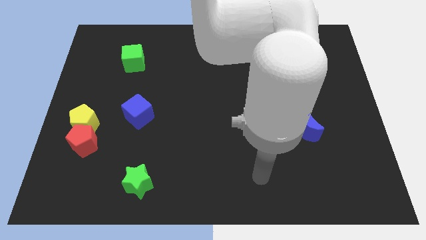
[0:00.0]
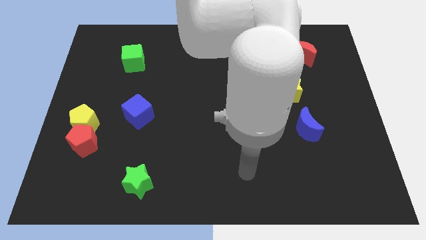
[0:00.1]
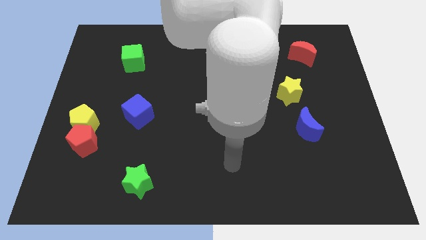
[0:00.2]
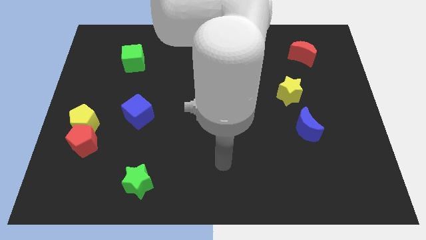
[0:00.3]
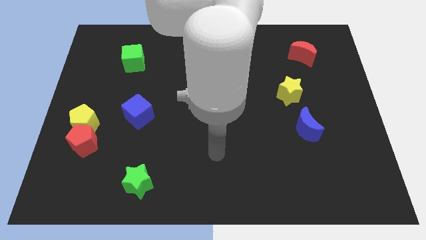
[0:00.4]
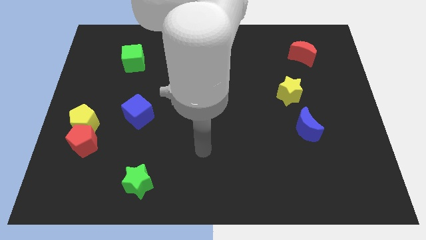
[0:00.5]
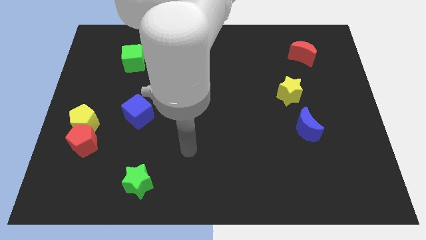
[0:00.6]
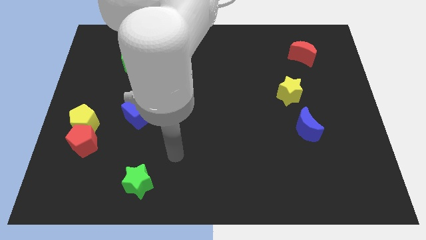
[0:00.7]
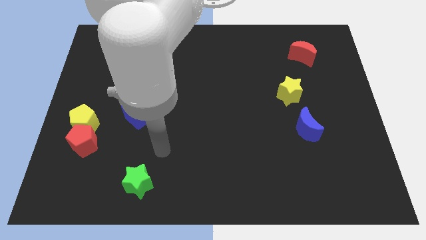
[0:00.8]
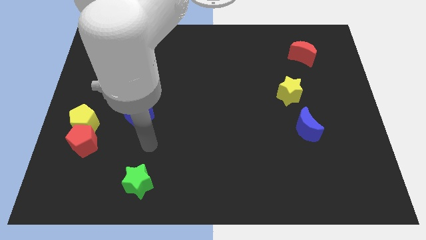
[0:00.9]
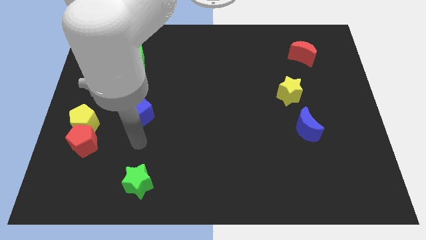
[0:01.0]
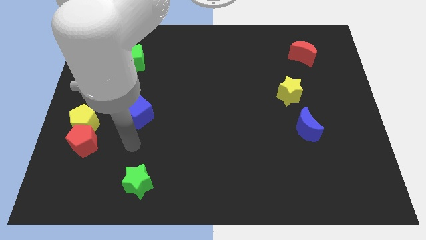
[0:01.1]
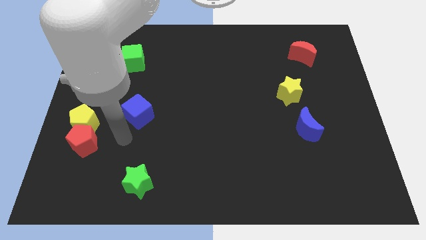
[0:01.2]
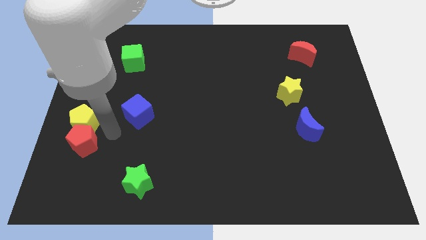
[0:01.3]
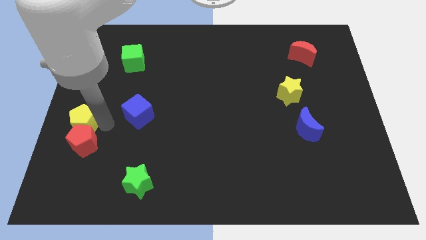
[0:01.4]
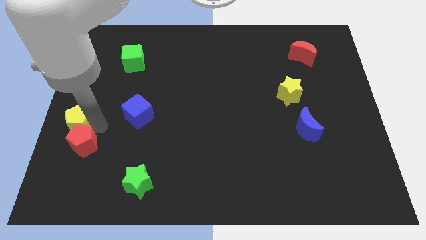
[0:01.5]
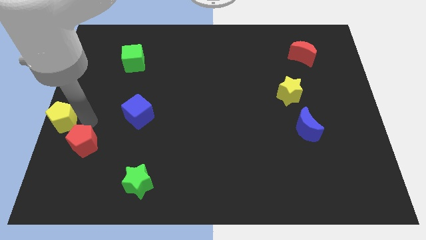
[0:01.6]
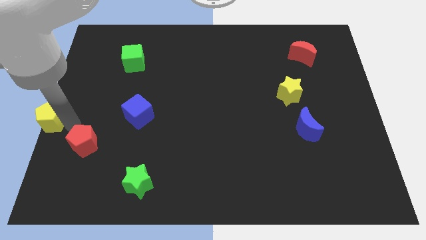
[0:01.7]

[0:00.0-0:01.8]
pull the red pentagon apart from the yellow pentagon

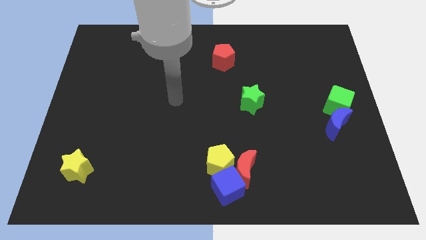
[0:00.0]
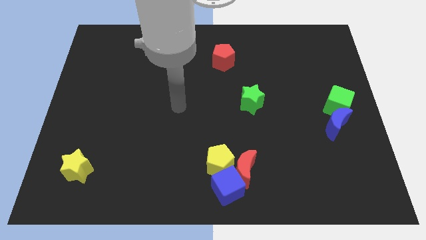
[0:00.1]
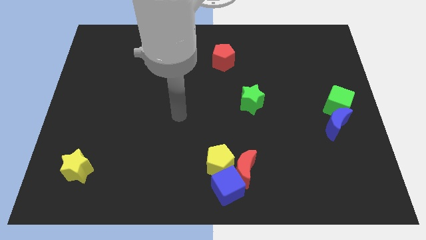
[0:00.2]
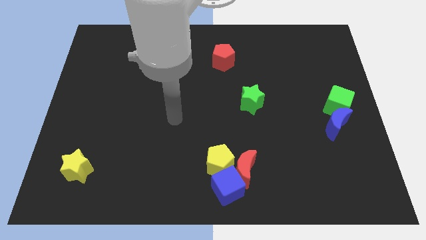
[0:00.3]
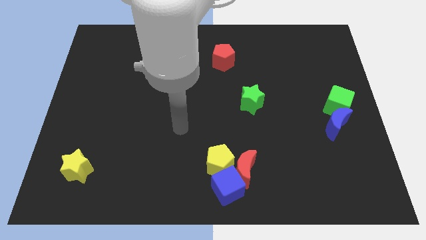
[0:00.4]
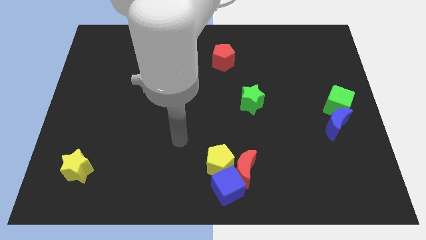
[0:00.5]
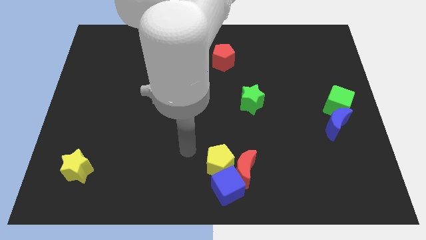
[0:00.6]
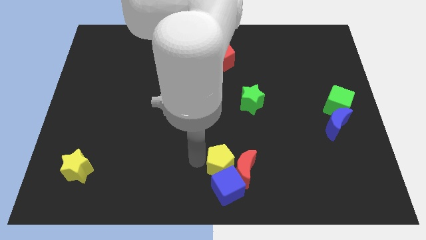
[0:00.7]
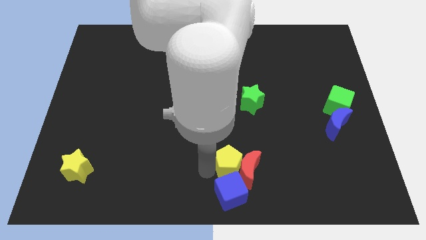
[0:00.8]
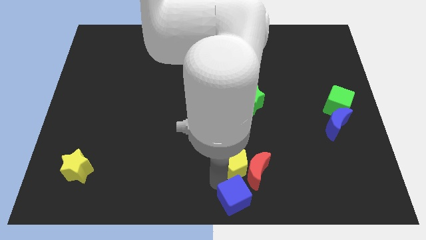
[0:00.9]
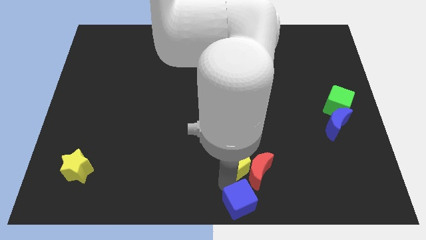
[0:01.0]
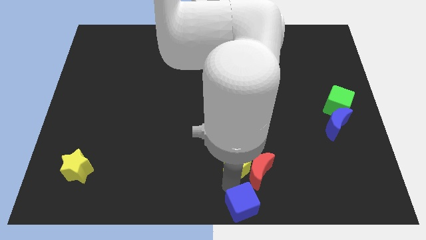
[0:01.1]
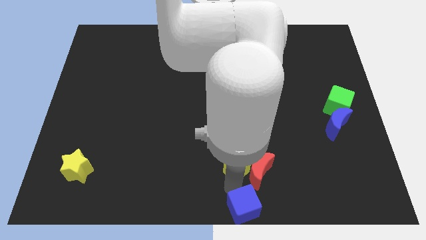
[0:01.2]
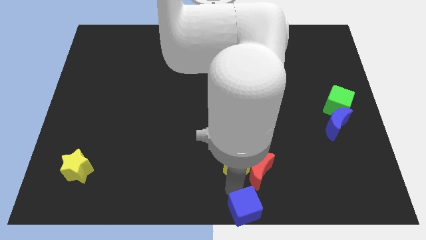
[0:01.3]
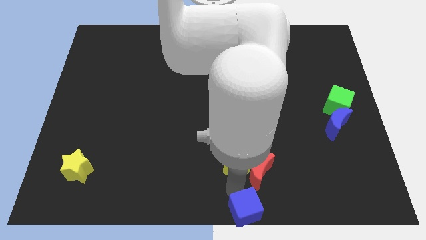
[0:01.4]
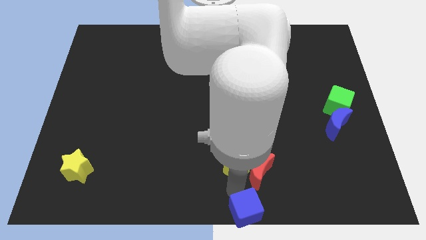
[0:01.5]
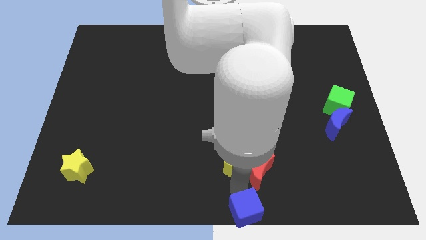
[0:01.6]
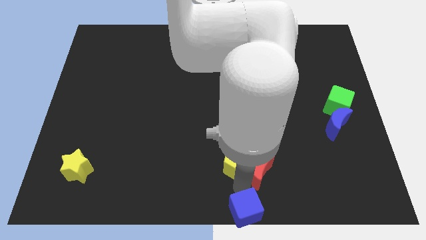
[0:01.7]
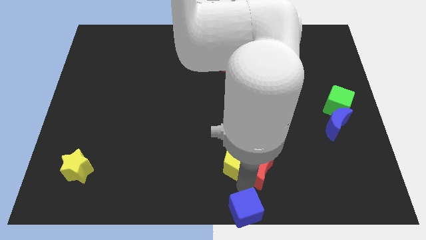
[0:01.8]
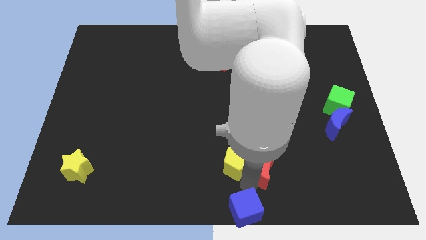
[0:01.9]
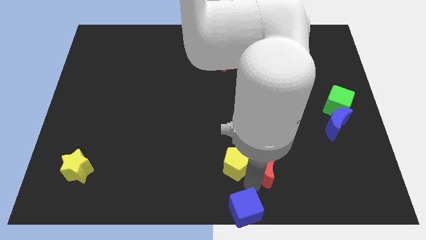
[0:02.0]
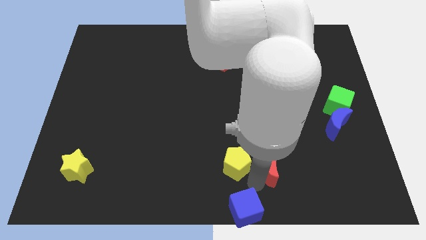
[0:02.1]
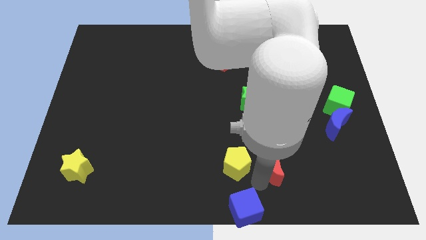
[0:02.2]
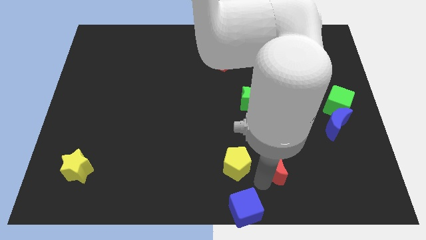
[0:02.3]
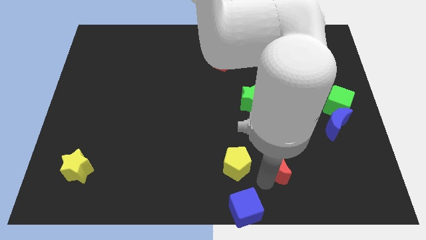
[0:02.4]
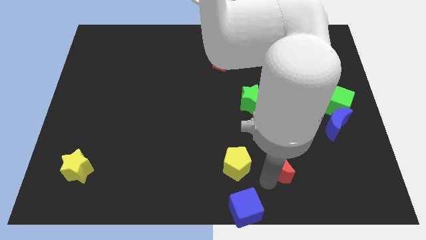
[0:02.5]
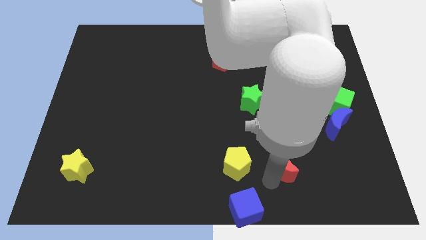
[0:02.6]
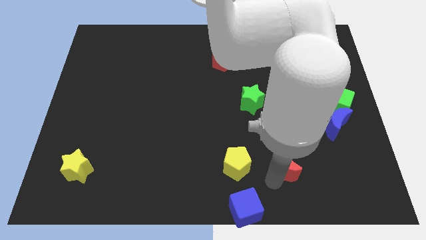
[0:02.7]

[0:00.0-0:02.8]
pull the red moon apart from the blue cube and yellow pentagon

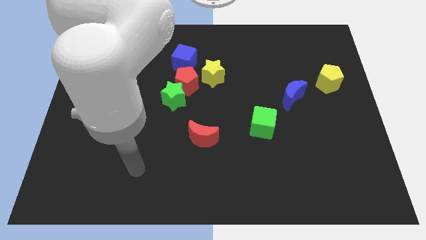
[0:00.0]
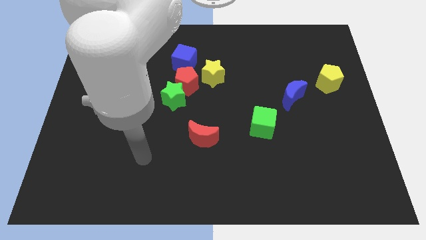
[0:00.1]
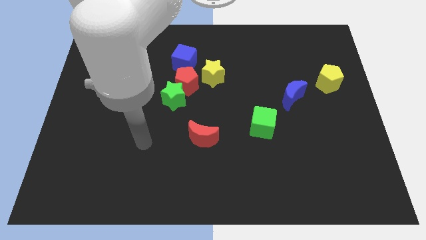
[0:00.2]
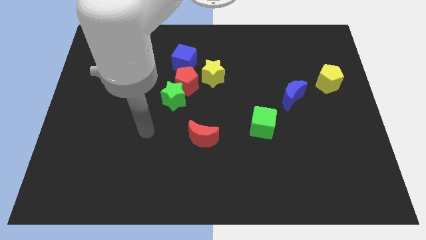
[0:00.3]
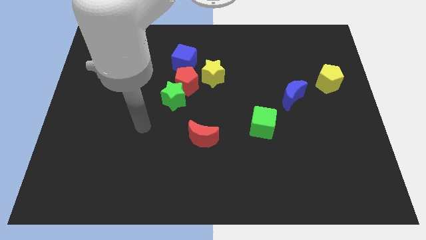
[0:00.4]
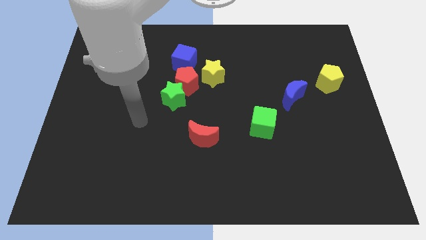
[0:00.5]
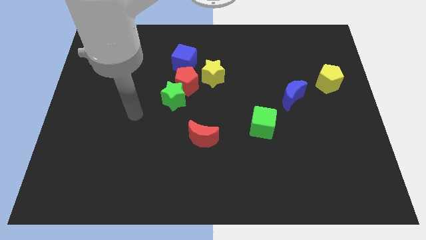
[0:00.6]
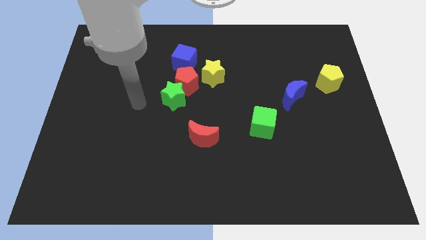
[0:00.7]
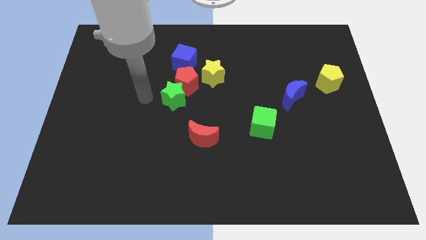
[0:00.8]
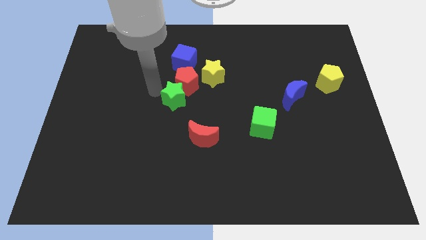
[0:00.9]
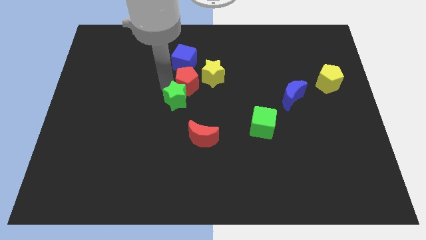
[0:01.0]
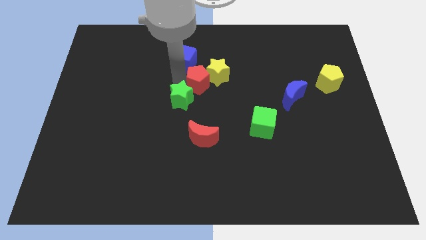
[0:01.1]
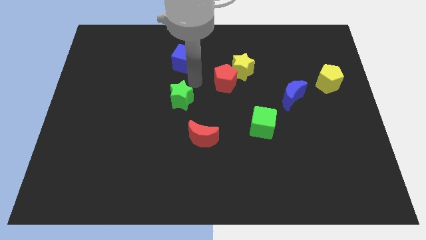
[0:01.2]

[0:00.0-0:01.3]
separate the green star from the red pentagon

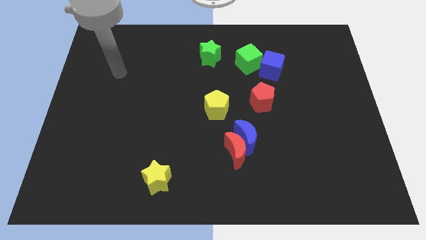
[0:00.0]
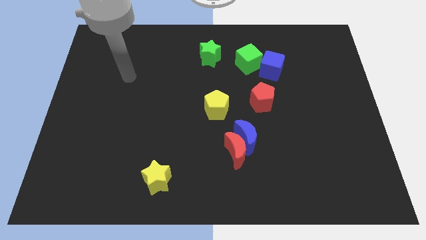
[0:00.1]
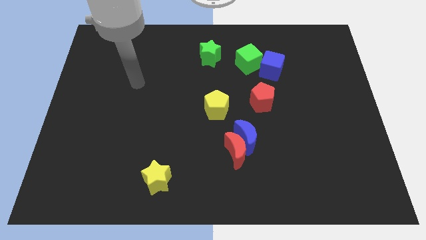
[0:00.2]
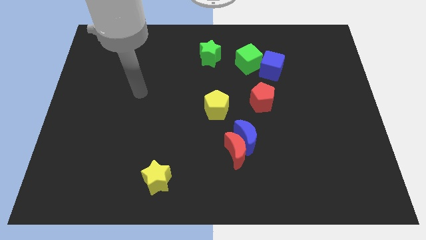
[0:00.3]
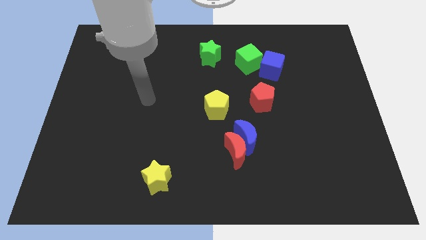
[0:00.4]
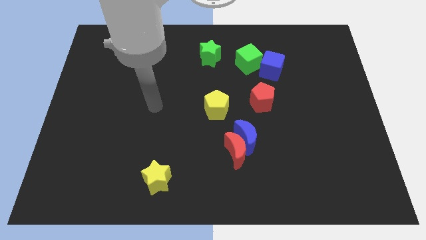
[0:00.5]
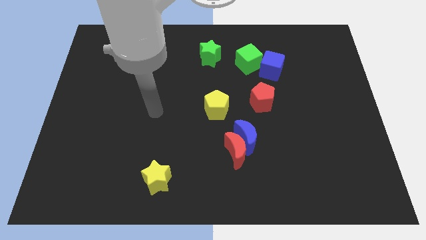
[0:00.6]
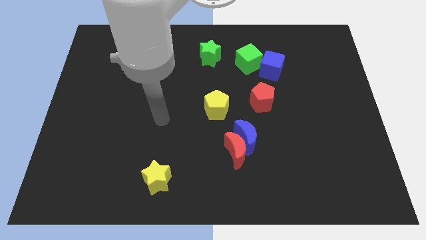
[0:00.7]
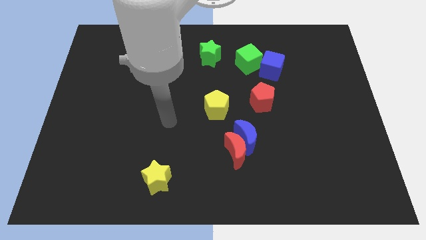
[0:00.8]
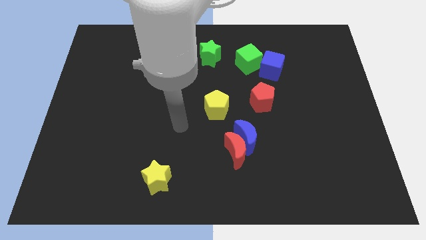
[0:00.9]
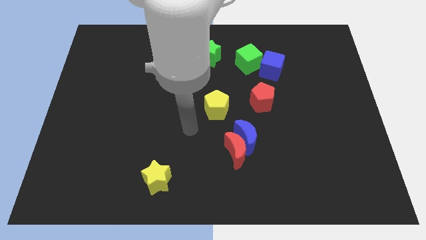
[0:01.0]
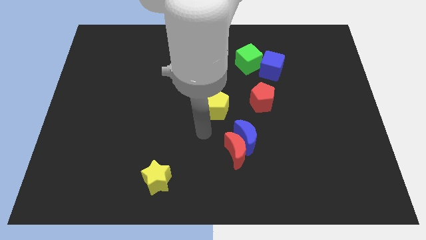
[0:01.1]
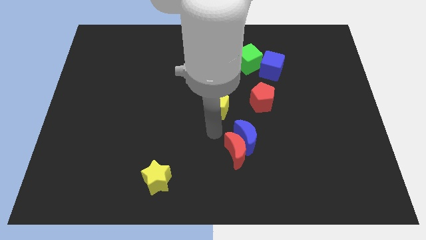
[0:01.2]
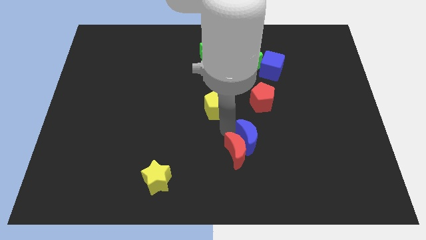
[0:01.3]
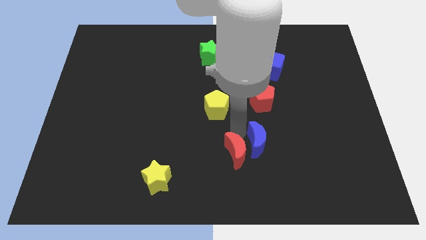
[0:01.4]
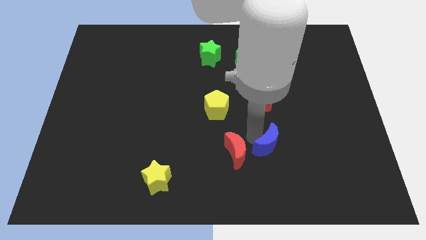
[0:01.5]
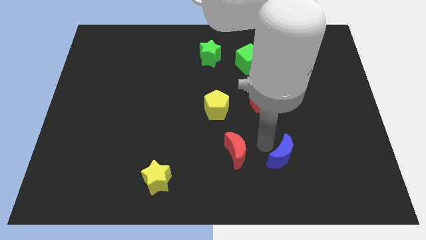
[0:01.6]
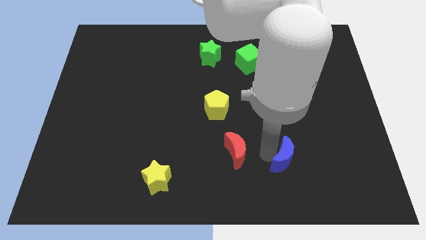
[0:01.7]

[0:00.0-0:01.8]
move the red moon away from the blue moon

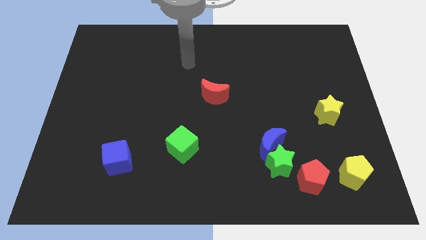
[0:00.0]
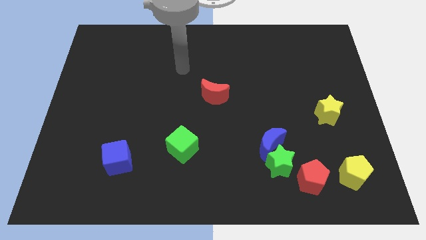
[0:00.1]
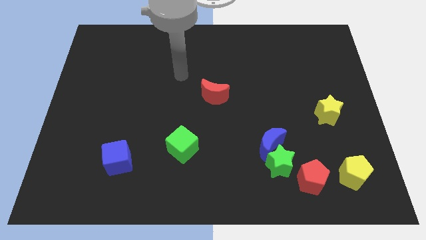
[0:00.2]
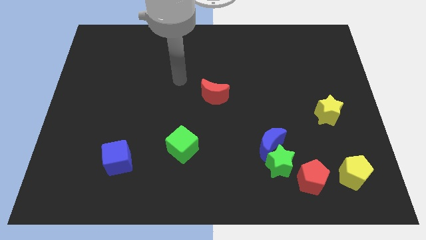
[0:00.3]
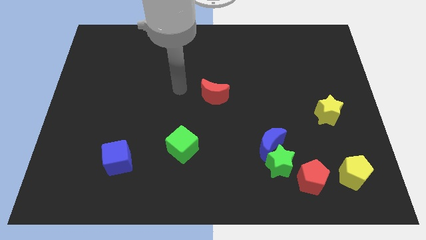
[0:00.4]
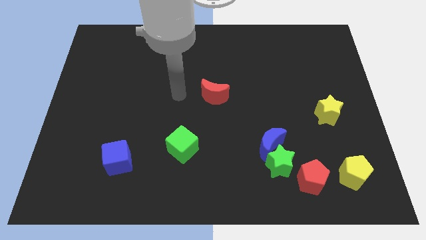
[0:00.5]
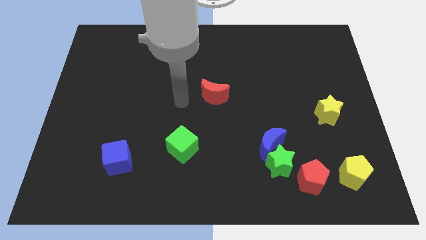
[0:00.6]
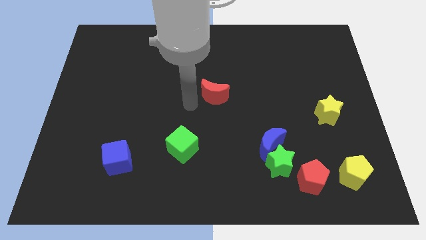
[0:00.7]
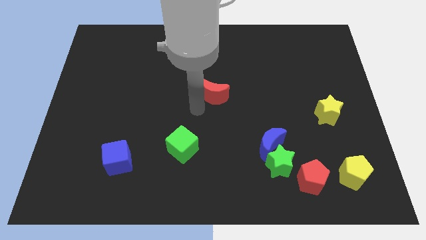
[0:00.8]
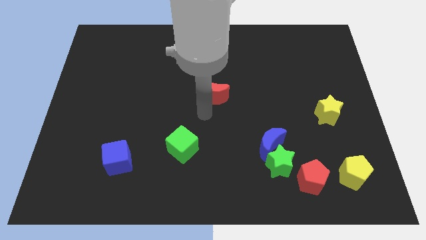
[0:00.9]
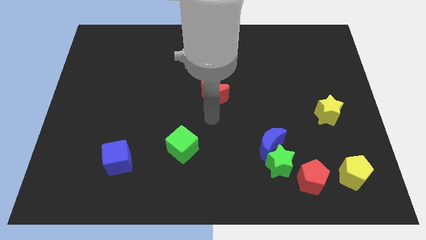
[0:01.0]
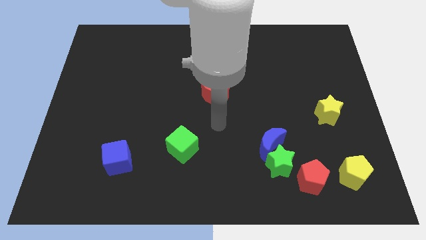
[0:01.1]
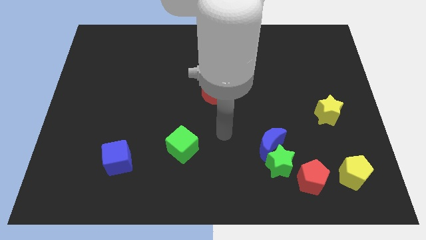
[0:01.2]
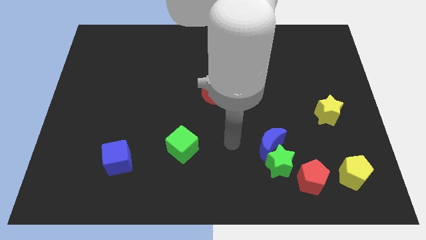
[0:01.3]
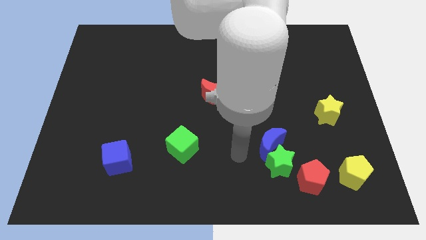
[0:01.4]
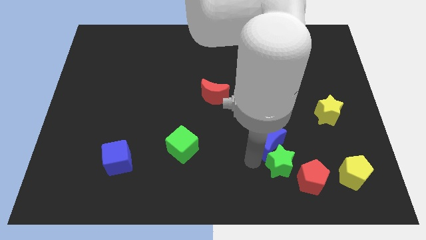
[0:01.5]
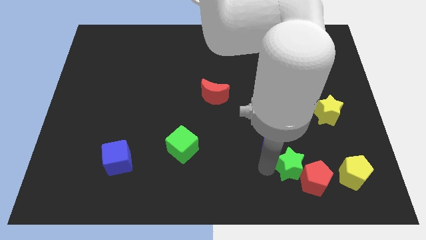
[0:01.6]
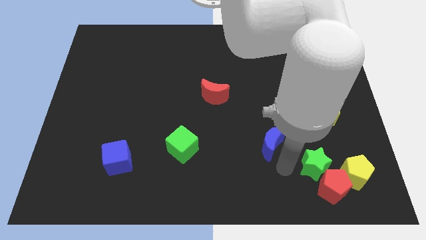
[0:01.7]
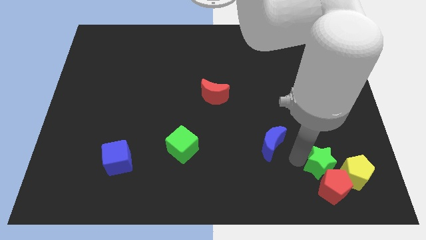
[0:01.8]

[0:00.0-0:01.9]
move the blue moon away from the green star
